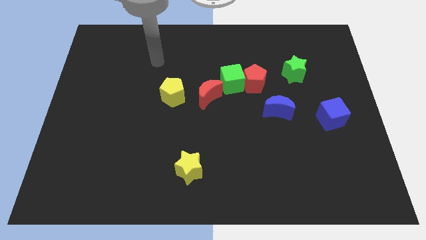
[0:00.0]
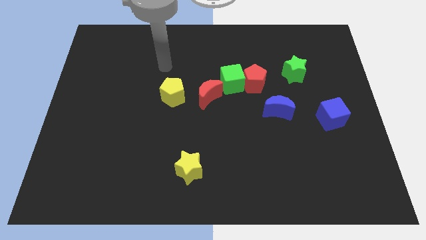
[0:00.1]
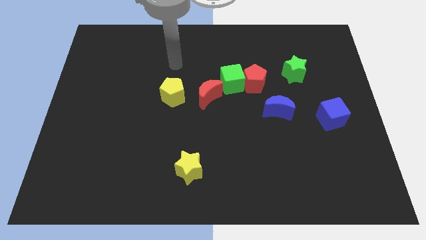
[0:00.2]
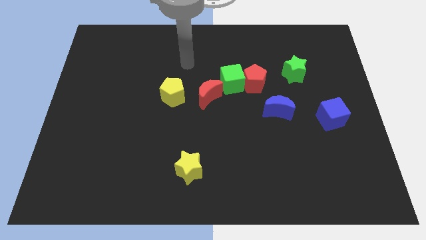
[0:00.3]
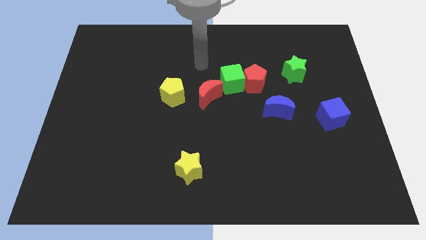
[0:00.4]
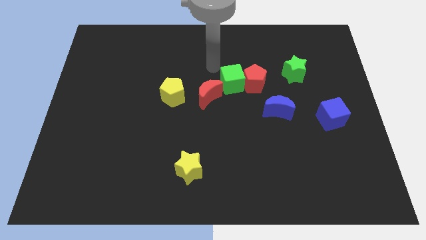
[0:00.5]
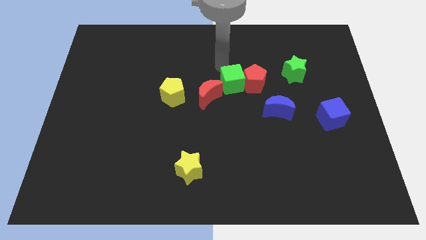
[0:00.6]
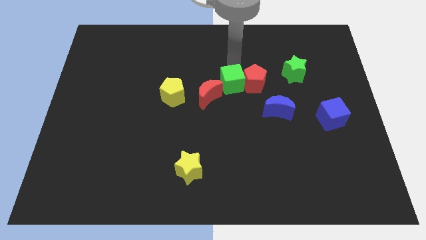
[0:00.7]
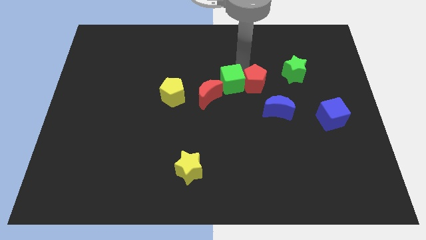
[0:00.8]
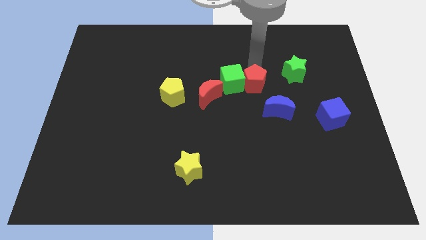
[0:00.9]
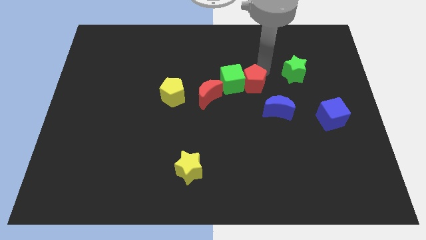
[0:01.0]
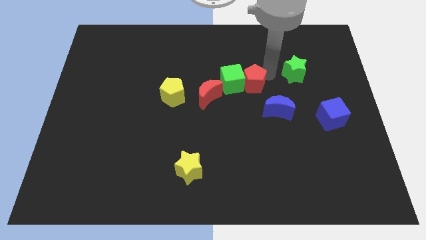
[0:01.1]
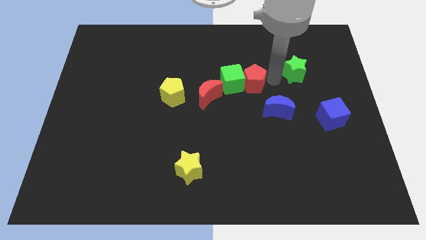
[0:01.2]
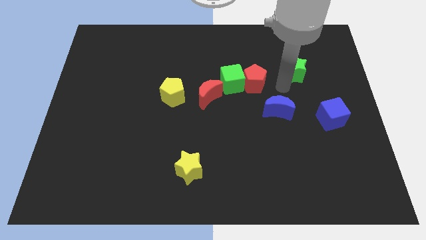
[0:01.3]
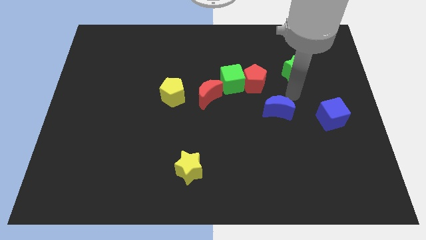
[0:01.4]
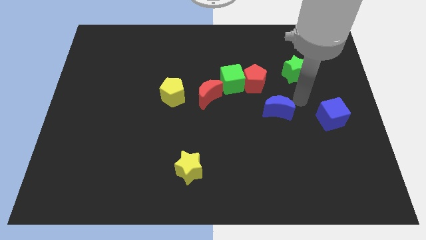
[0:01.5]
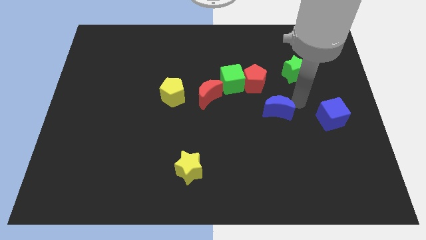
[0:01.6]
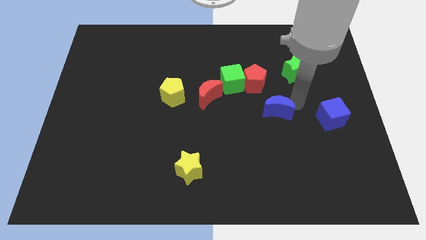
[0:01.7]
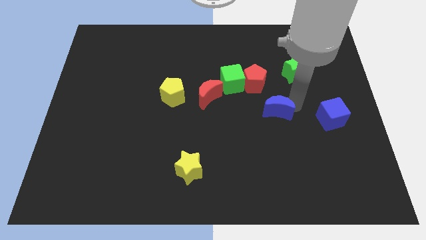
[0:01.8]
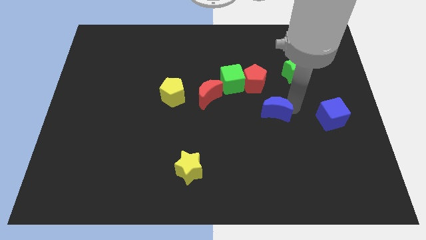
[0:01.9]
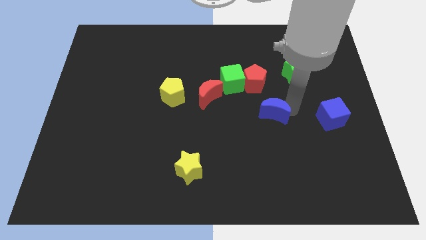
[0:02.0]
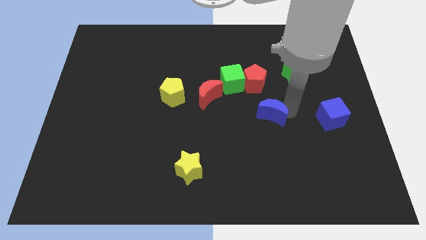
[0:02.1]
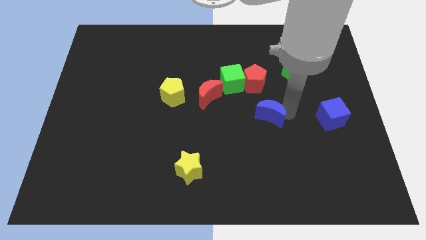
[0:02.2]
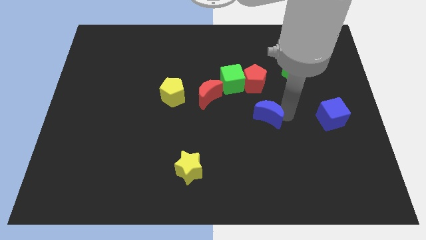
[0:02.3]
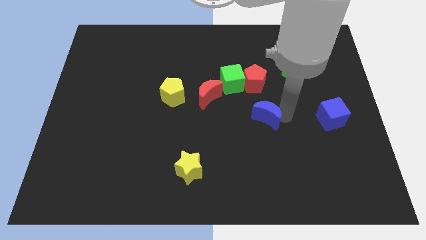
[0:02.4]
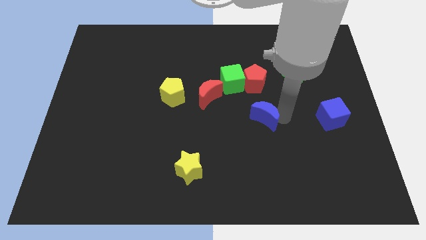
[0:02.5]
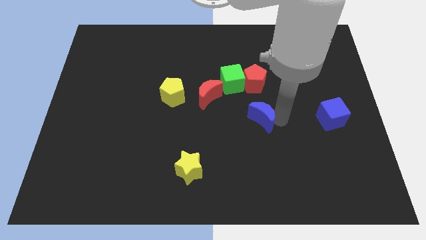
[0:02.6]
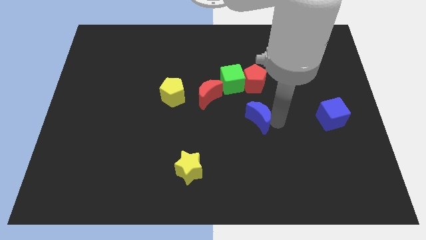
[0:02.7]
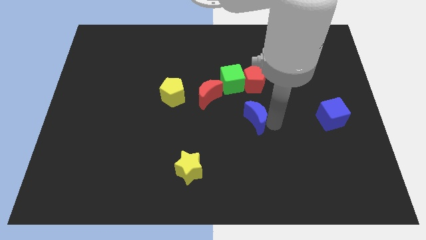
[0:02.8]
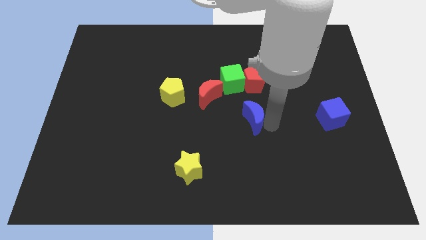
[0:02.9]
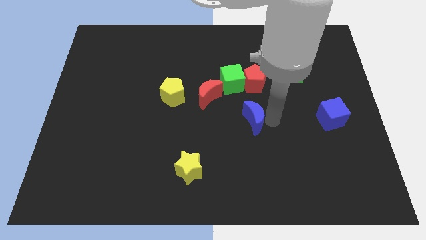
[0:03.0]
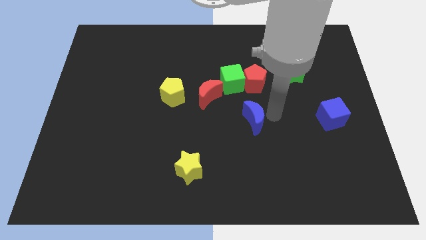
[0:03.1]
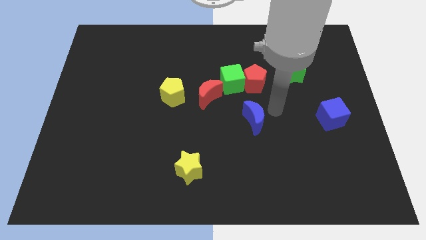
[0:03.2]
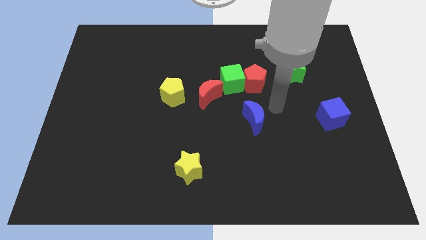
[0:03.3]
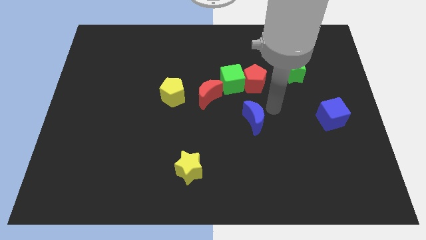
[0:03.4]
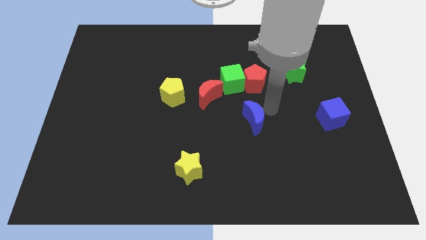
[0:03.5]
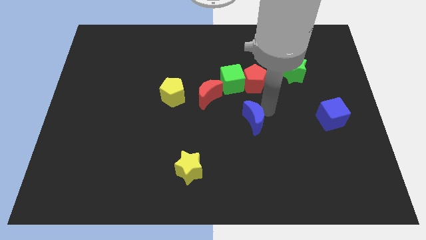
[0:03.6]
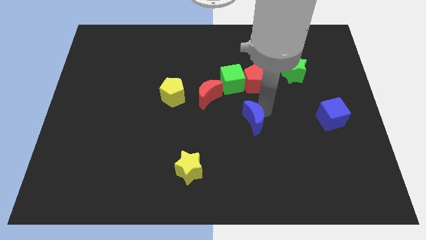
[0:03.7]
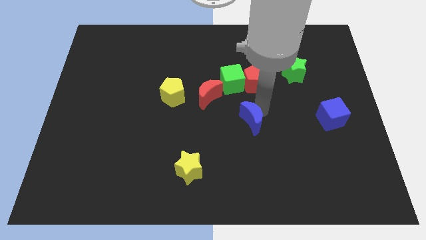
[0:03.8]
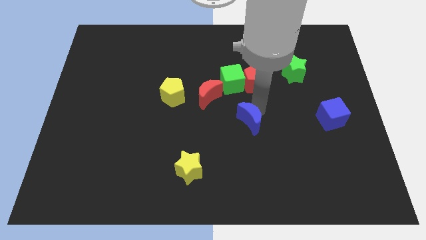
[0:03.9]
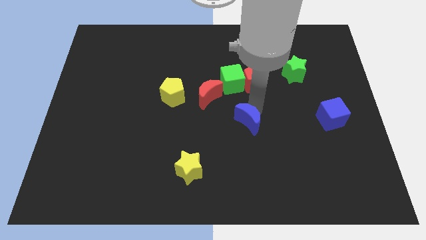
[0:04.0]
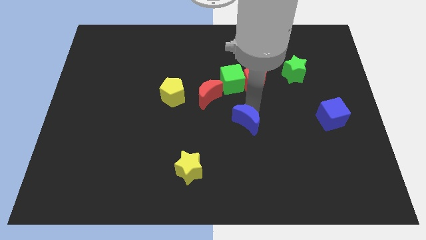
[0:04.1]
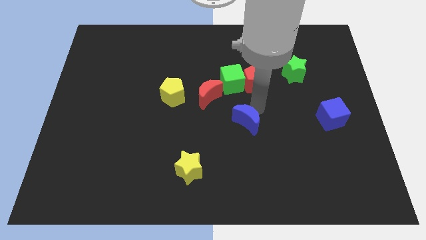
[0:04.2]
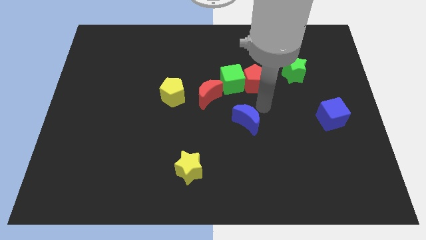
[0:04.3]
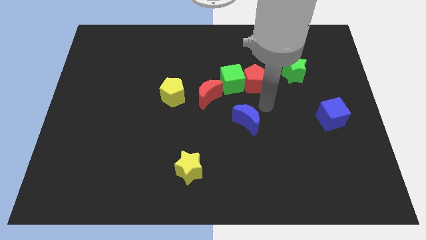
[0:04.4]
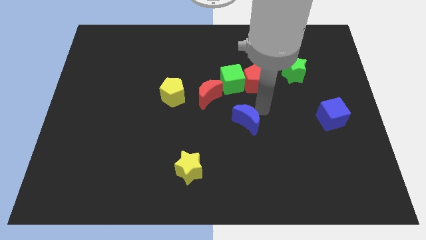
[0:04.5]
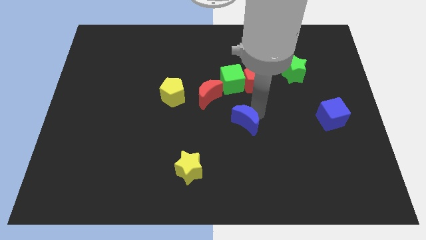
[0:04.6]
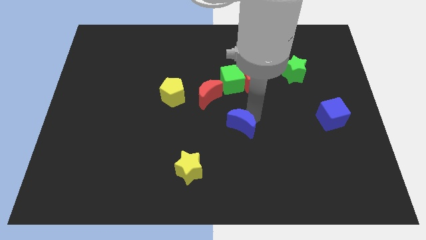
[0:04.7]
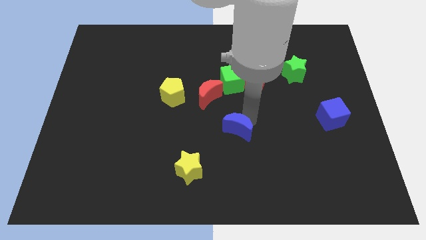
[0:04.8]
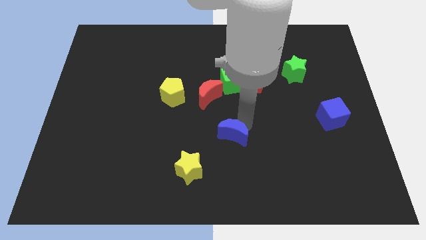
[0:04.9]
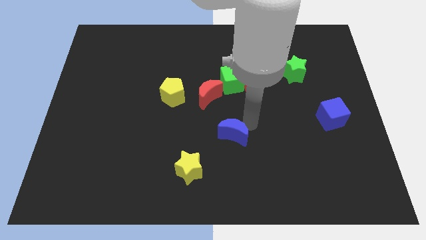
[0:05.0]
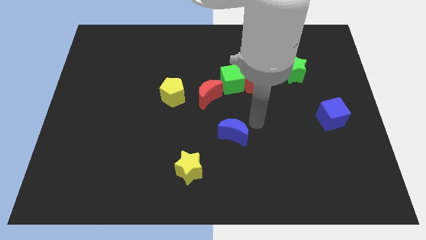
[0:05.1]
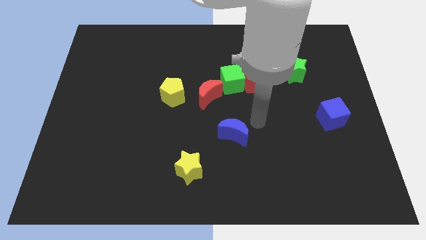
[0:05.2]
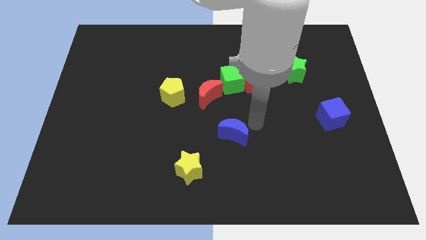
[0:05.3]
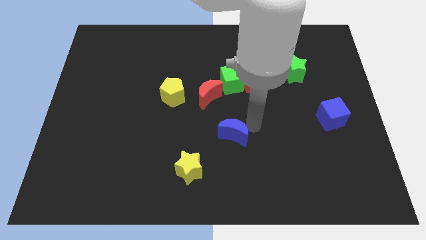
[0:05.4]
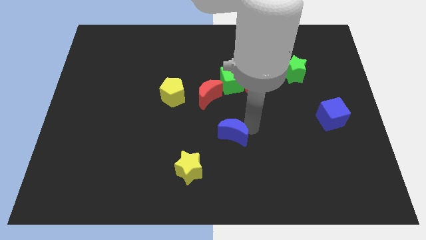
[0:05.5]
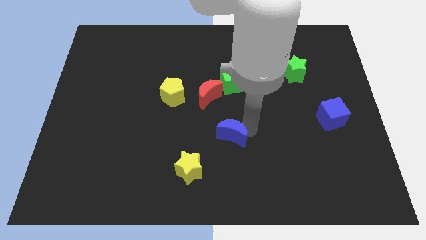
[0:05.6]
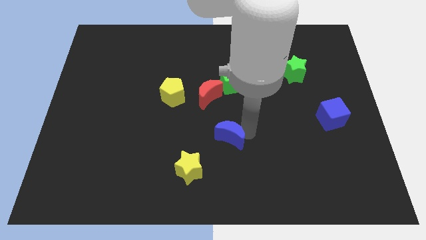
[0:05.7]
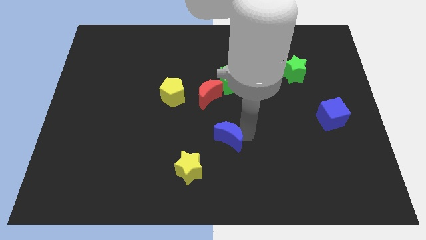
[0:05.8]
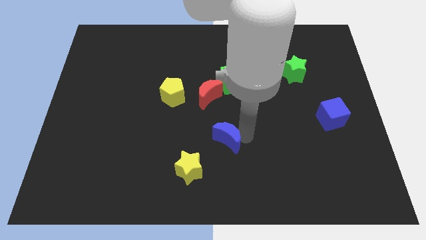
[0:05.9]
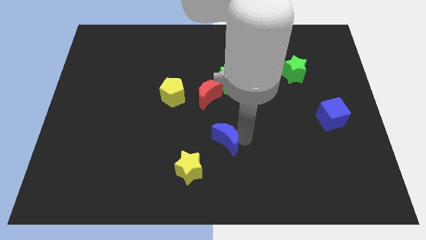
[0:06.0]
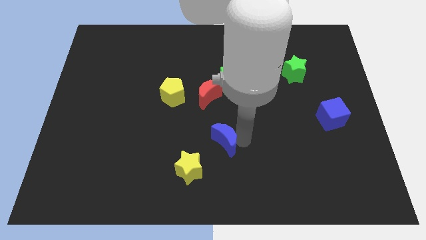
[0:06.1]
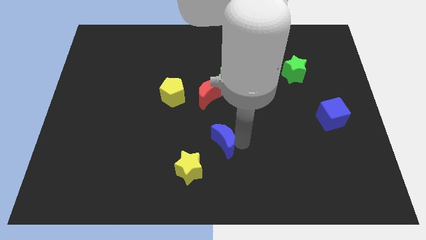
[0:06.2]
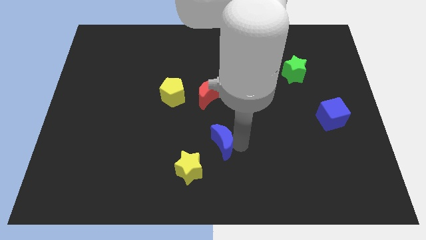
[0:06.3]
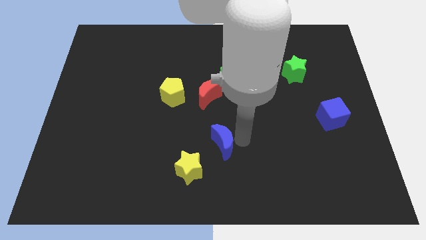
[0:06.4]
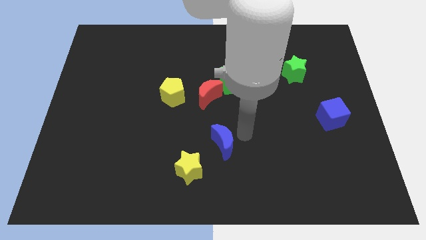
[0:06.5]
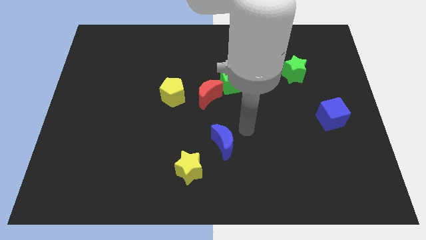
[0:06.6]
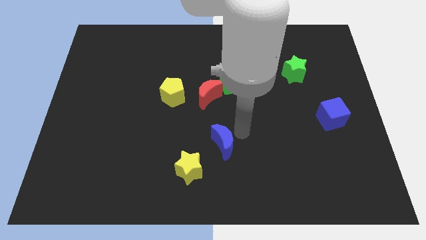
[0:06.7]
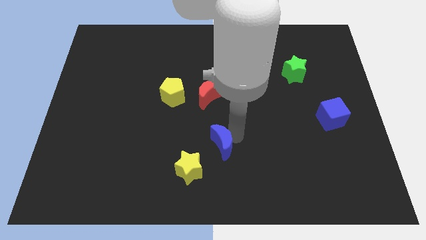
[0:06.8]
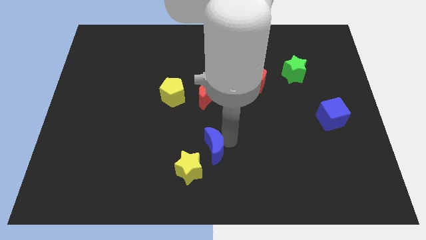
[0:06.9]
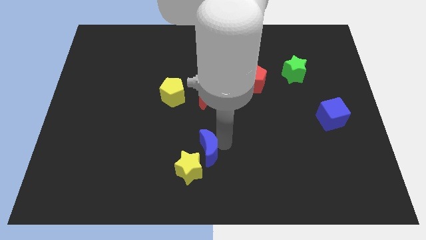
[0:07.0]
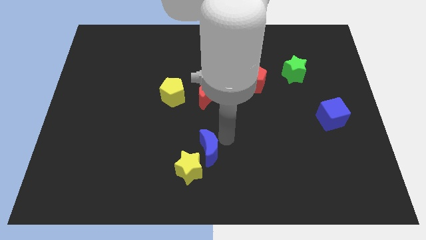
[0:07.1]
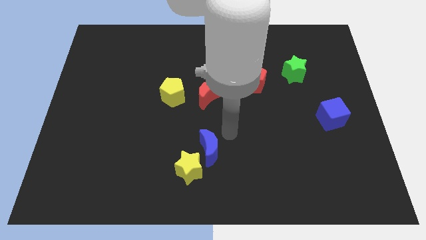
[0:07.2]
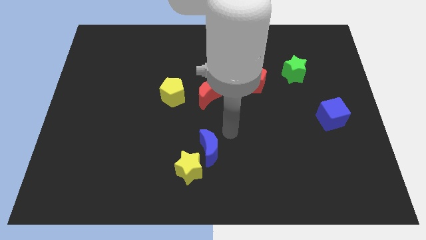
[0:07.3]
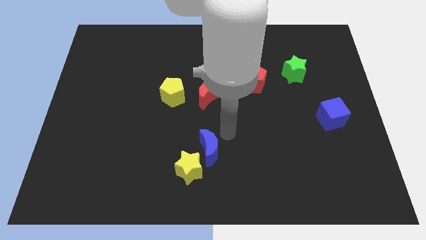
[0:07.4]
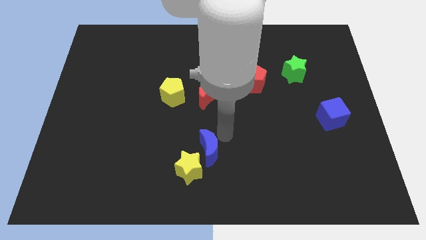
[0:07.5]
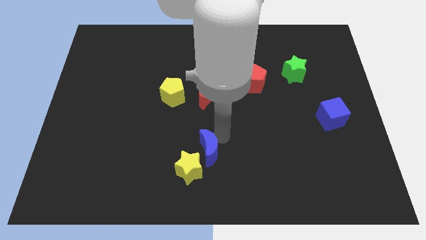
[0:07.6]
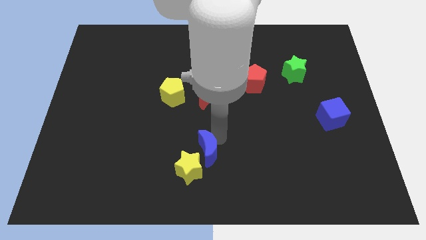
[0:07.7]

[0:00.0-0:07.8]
put the blue moon next to the yellow star
